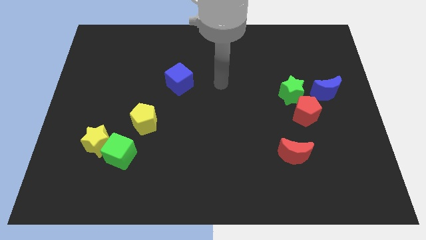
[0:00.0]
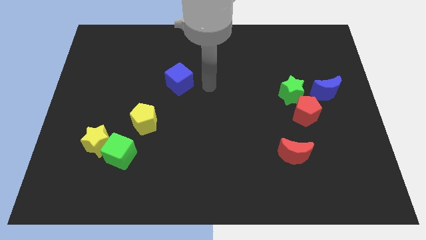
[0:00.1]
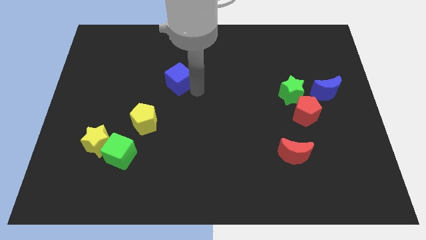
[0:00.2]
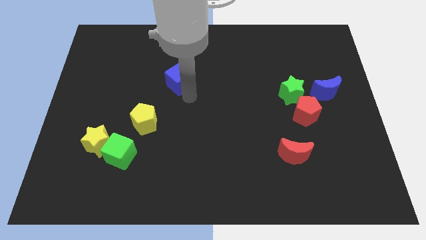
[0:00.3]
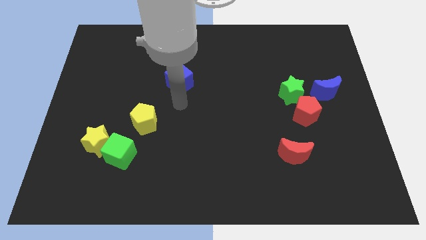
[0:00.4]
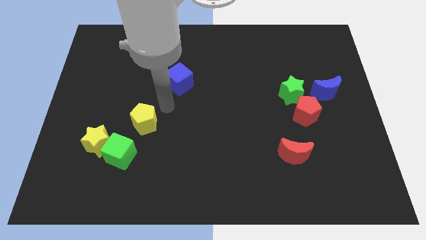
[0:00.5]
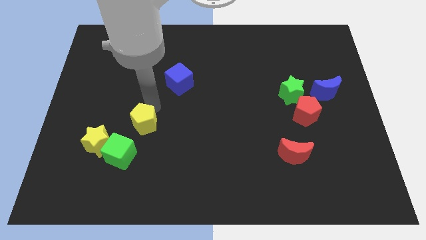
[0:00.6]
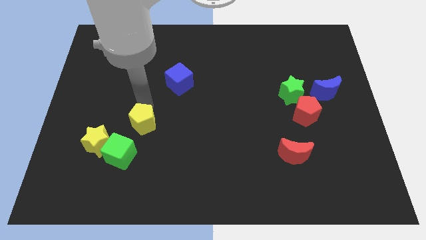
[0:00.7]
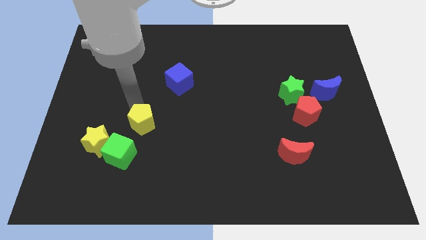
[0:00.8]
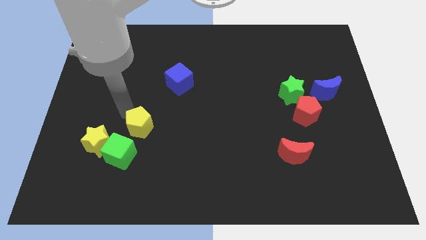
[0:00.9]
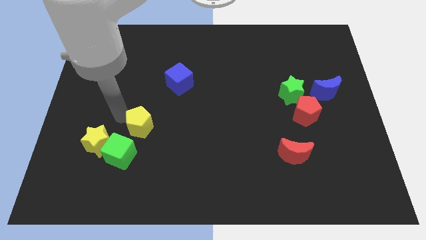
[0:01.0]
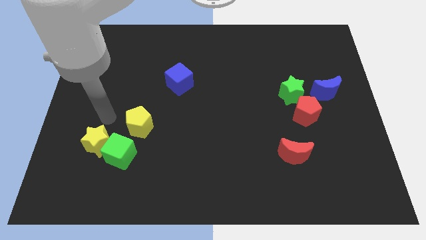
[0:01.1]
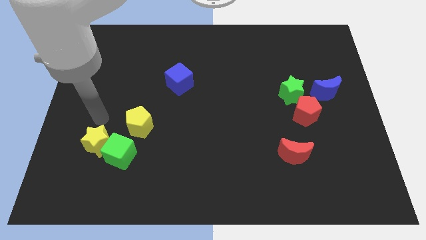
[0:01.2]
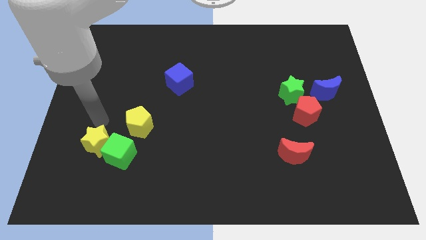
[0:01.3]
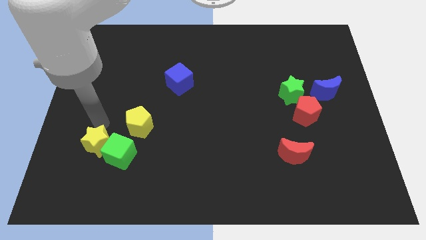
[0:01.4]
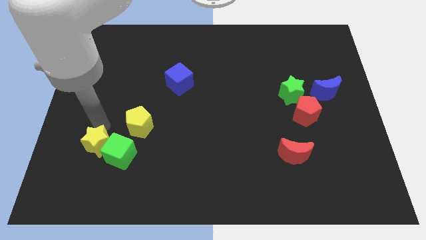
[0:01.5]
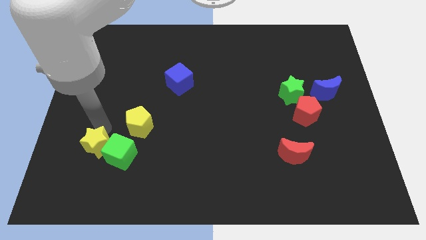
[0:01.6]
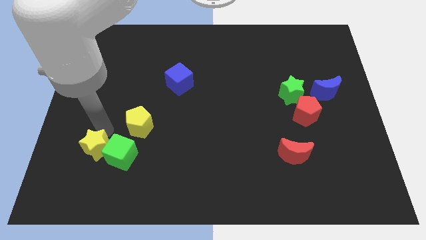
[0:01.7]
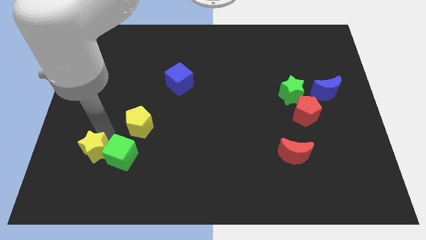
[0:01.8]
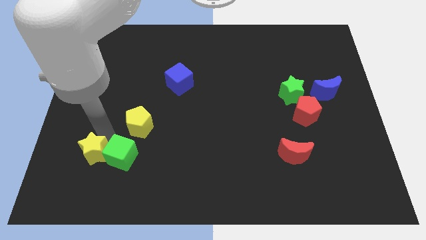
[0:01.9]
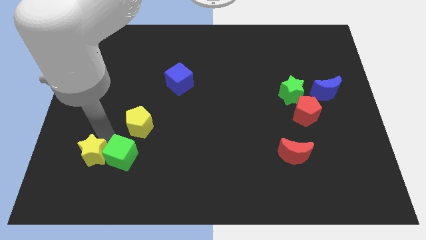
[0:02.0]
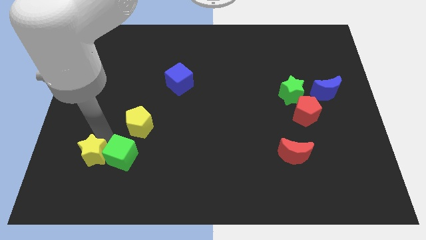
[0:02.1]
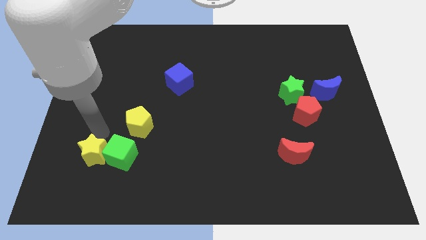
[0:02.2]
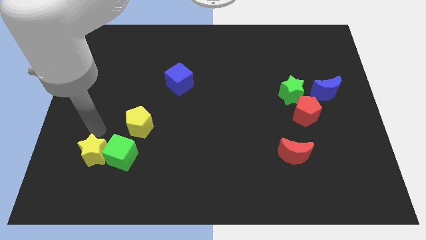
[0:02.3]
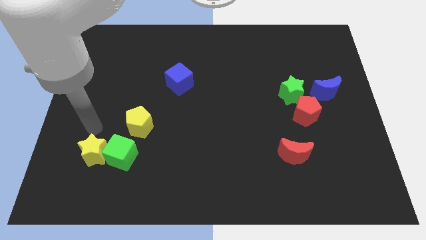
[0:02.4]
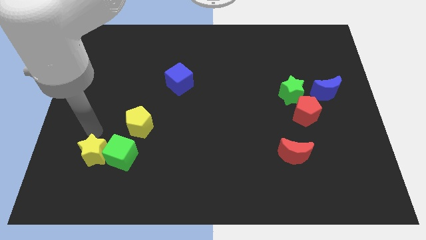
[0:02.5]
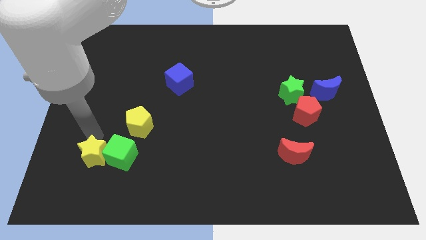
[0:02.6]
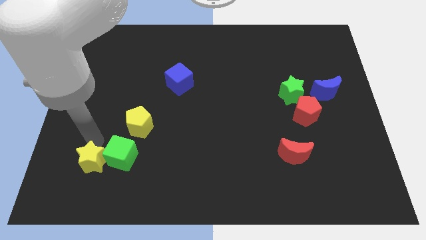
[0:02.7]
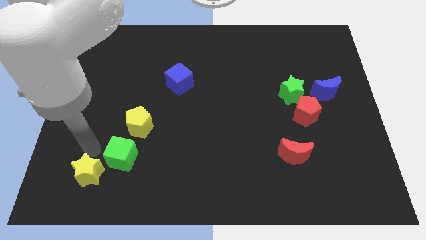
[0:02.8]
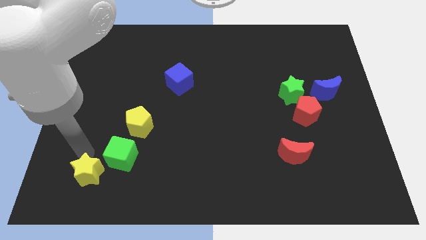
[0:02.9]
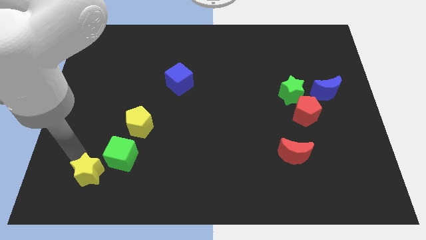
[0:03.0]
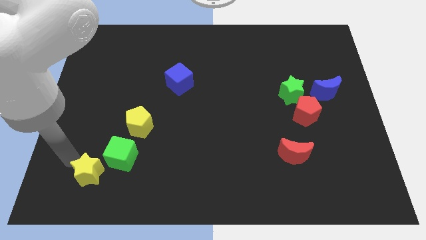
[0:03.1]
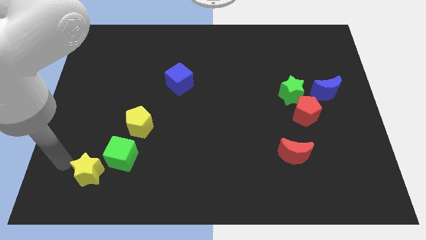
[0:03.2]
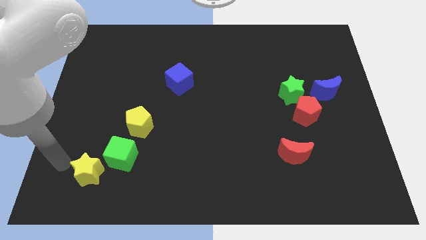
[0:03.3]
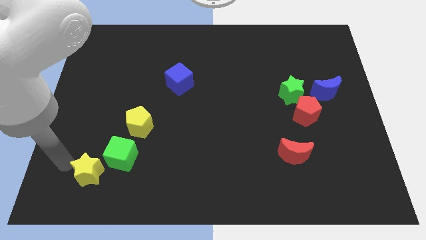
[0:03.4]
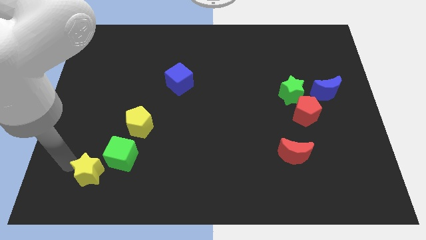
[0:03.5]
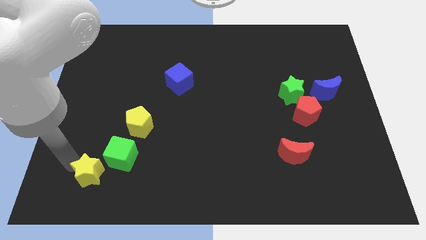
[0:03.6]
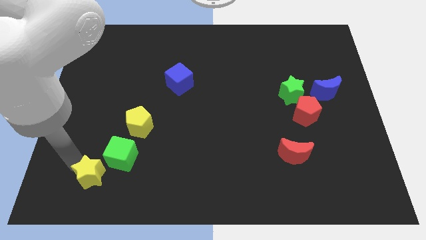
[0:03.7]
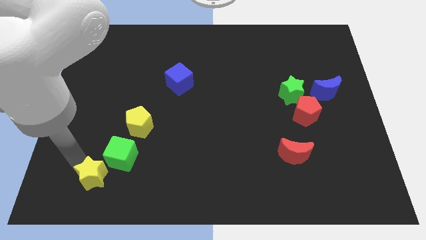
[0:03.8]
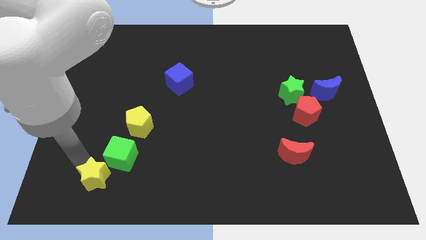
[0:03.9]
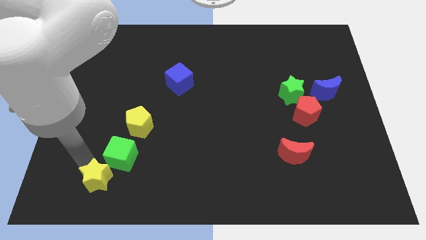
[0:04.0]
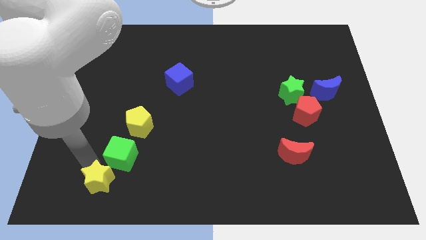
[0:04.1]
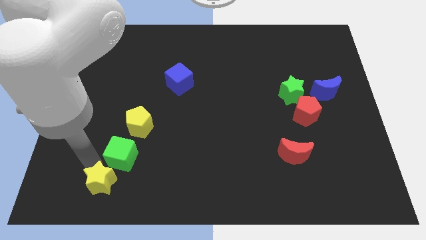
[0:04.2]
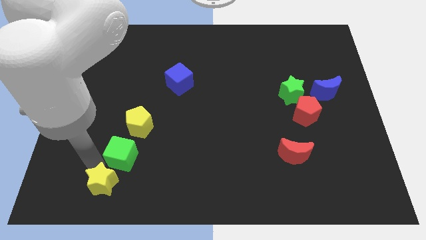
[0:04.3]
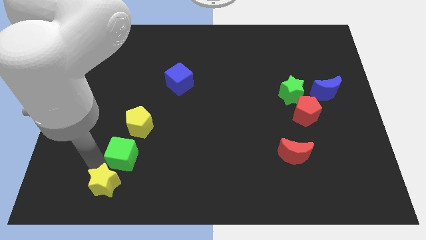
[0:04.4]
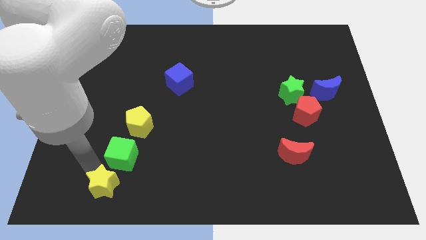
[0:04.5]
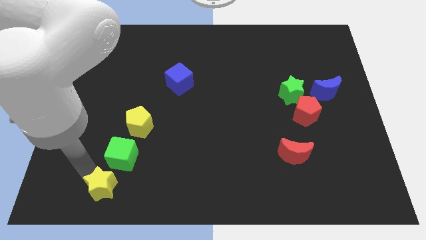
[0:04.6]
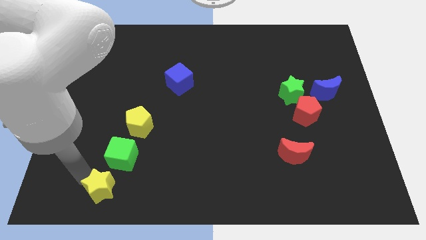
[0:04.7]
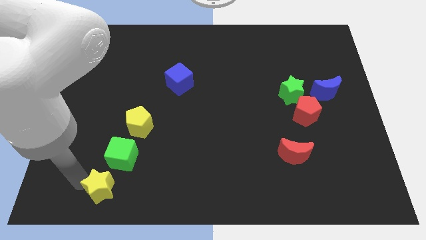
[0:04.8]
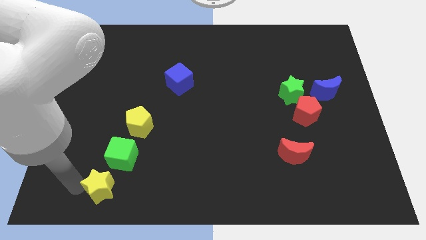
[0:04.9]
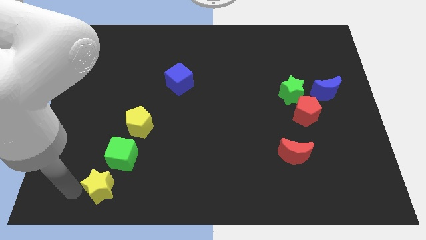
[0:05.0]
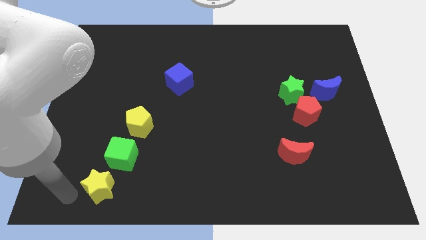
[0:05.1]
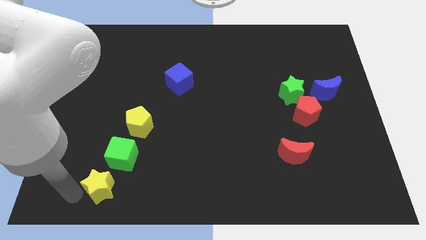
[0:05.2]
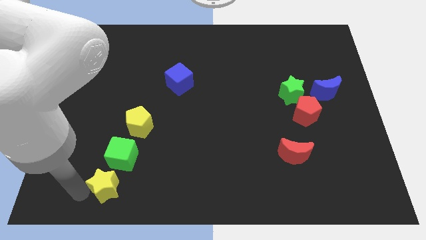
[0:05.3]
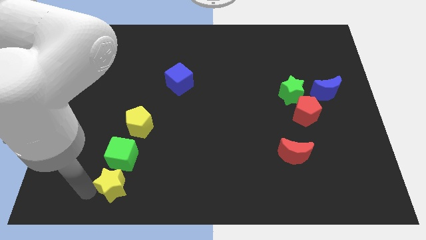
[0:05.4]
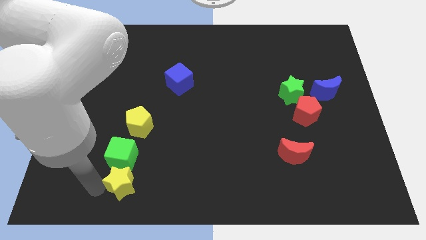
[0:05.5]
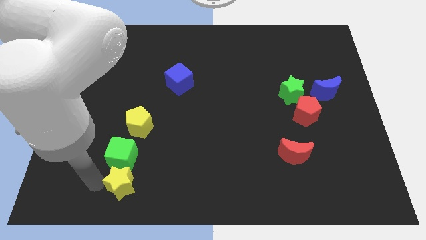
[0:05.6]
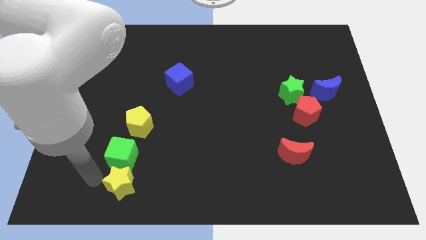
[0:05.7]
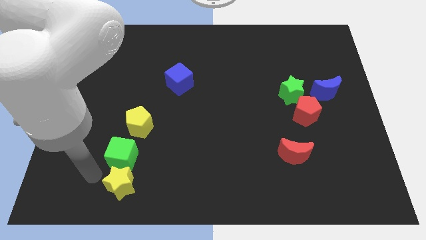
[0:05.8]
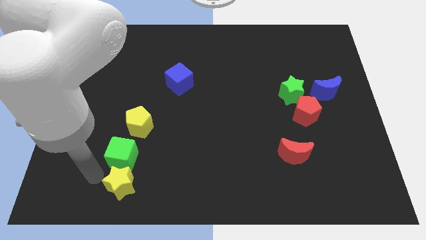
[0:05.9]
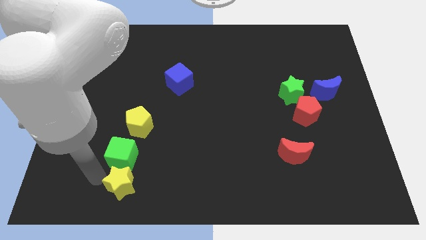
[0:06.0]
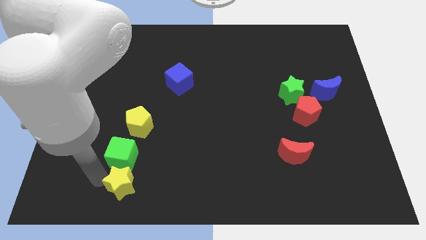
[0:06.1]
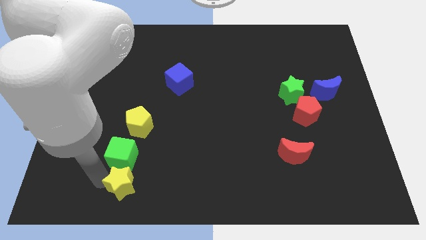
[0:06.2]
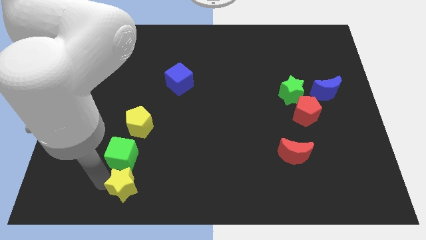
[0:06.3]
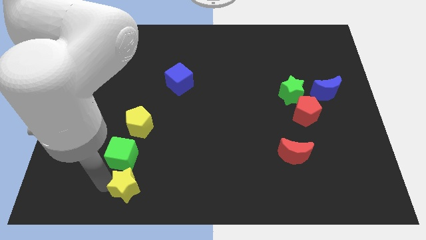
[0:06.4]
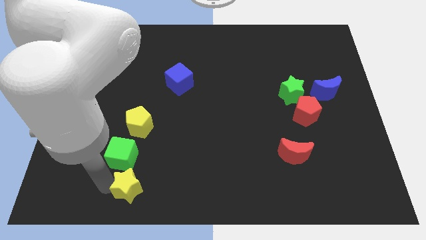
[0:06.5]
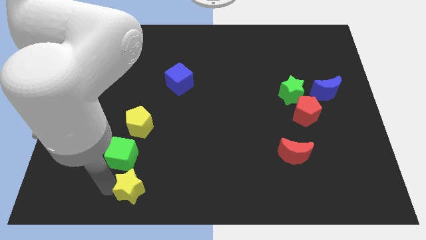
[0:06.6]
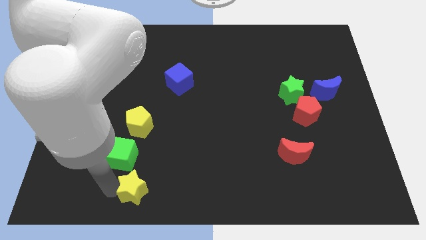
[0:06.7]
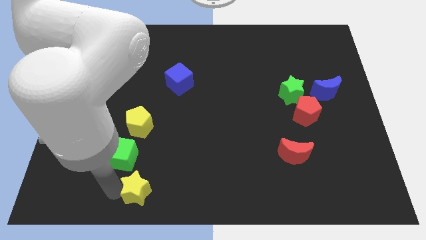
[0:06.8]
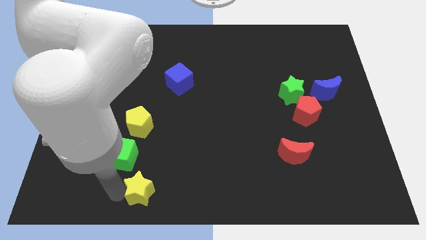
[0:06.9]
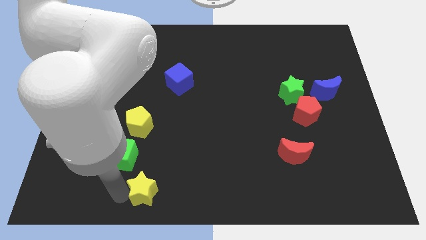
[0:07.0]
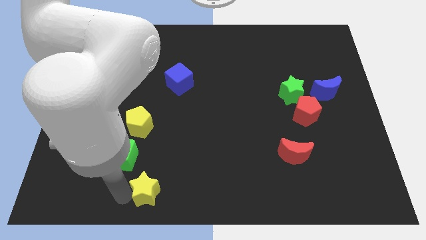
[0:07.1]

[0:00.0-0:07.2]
move the yellow star to the bottom side

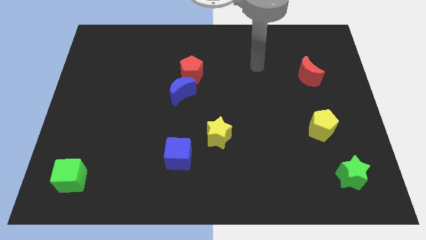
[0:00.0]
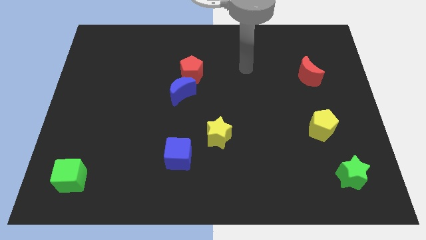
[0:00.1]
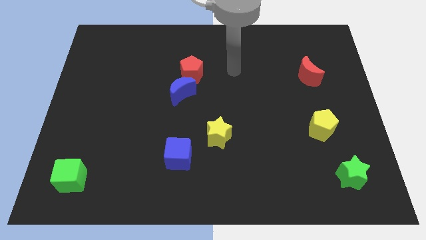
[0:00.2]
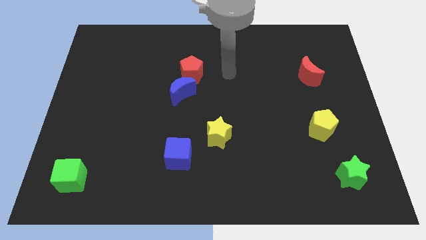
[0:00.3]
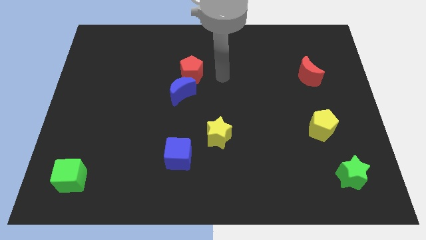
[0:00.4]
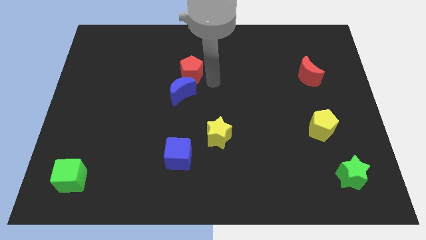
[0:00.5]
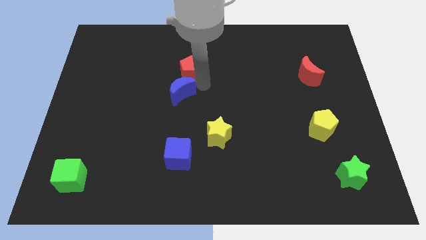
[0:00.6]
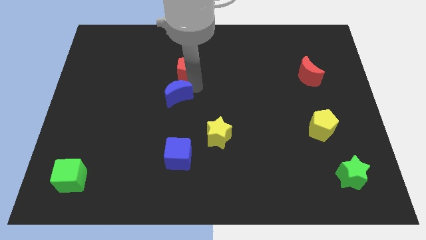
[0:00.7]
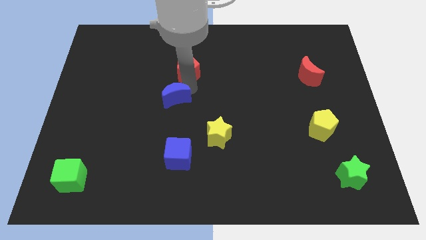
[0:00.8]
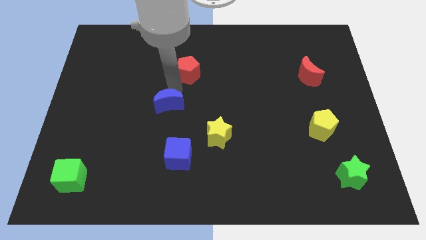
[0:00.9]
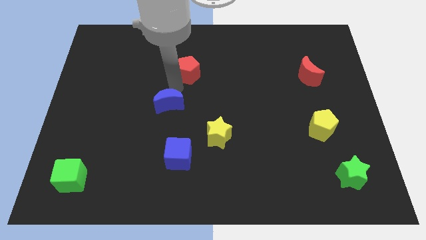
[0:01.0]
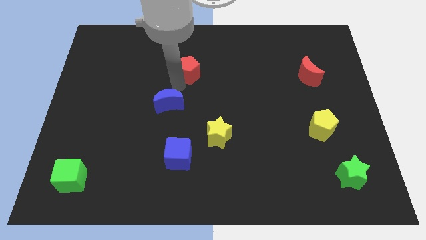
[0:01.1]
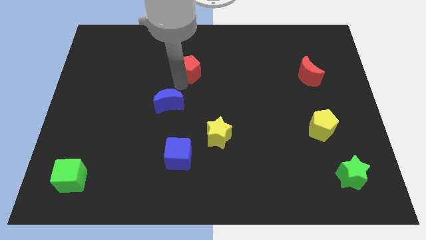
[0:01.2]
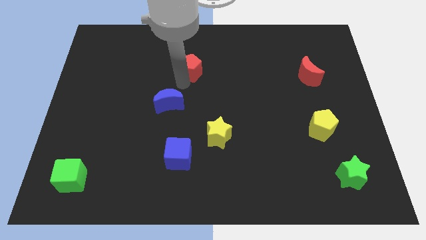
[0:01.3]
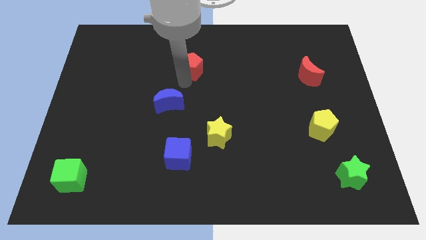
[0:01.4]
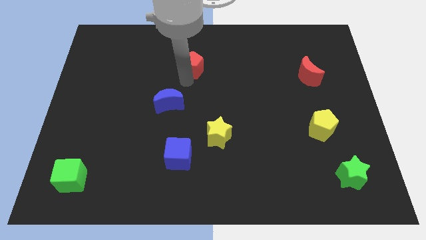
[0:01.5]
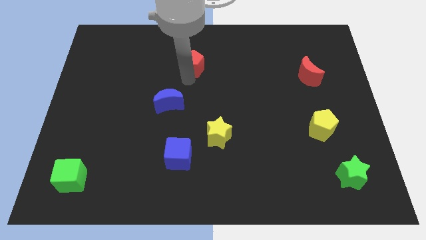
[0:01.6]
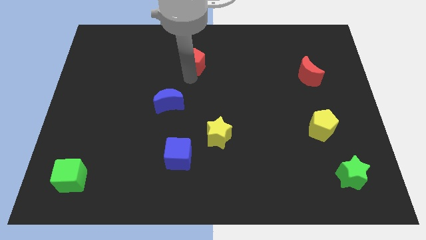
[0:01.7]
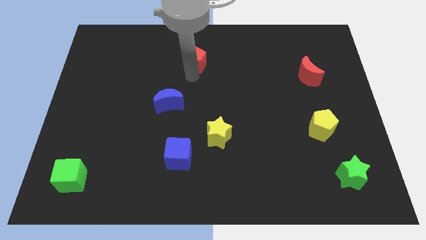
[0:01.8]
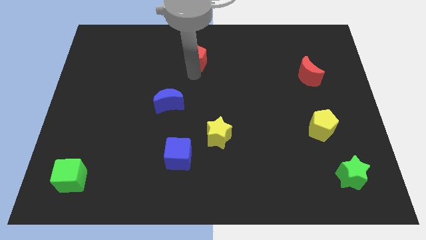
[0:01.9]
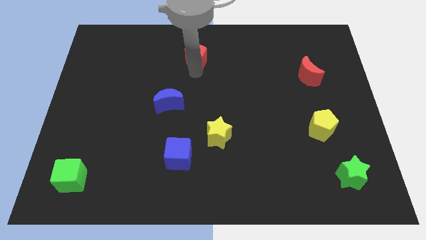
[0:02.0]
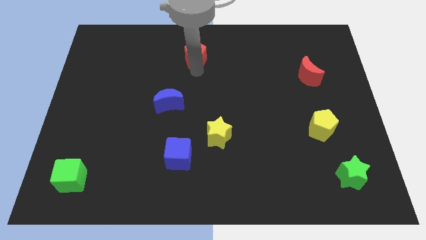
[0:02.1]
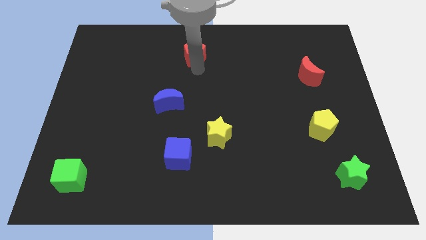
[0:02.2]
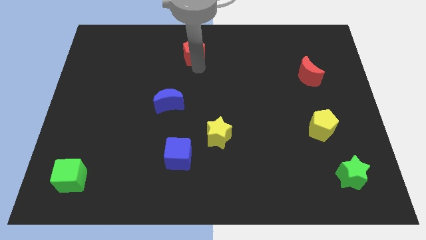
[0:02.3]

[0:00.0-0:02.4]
slide the red pentagon to the top side
